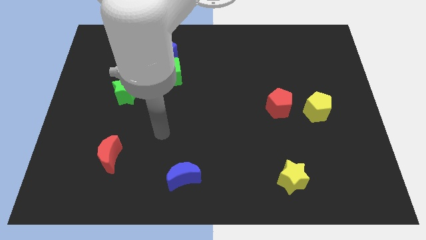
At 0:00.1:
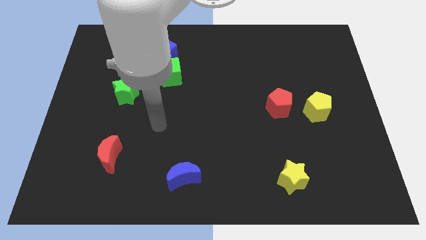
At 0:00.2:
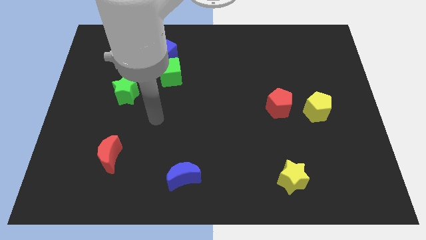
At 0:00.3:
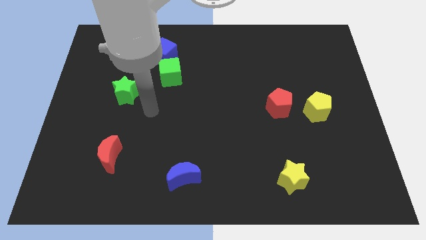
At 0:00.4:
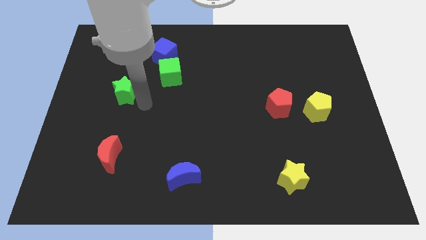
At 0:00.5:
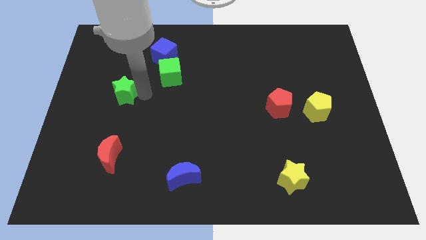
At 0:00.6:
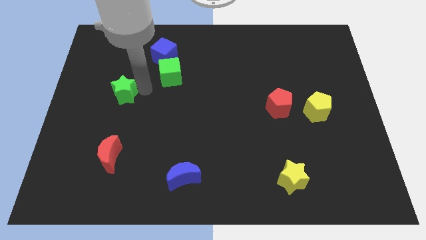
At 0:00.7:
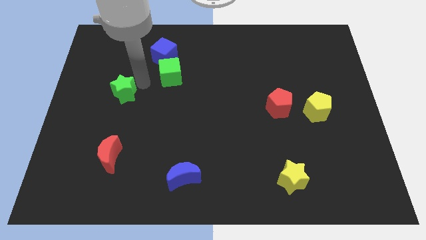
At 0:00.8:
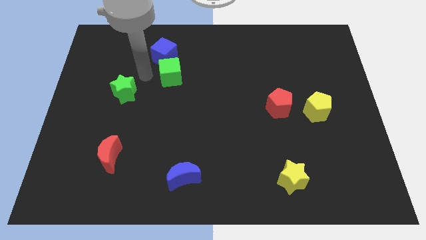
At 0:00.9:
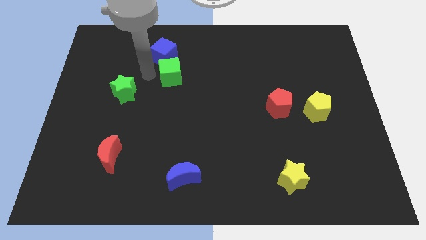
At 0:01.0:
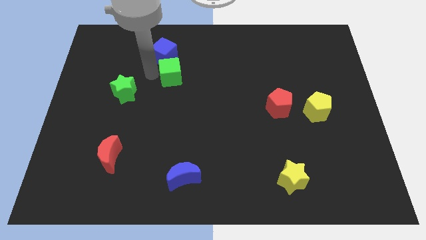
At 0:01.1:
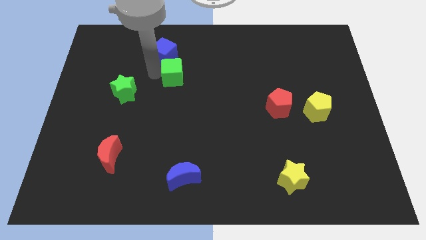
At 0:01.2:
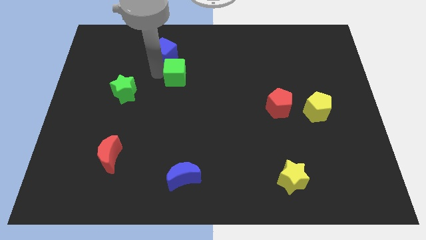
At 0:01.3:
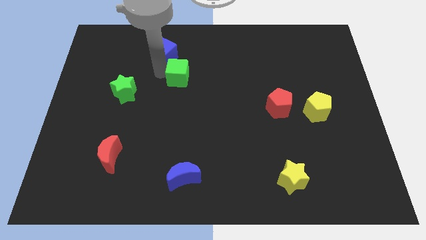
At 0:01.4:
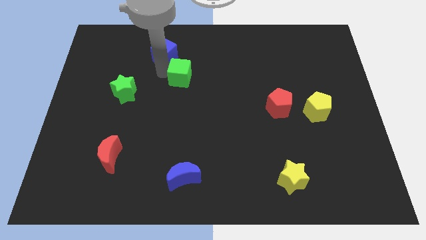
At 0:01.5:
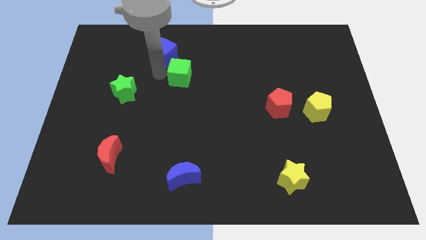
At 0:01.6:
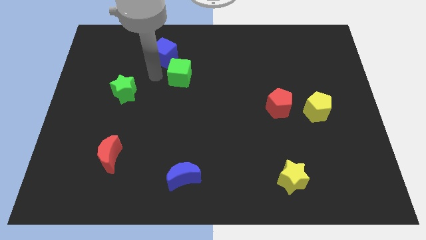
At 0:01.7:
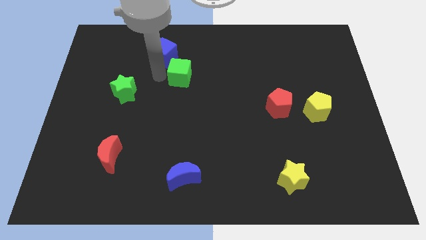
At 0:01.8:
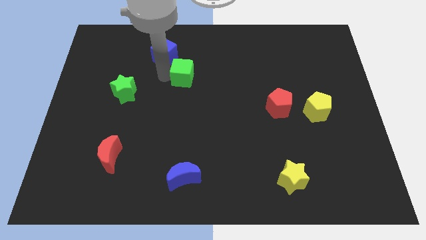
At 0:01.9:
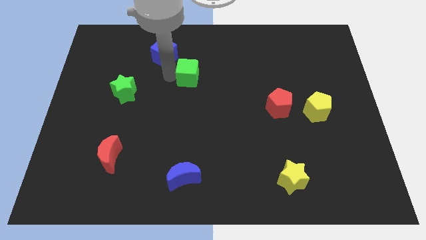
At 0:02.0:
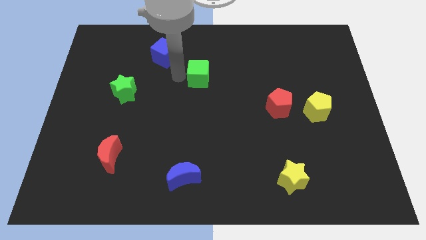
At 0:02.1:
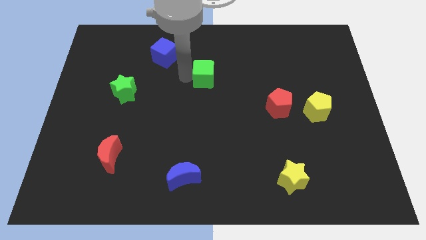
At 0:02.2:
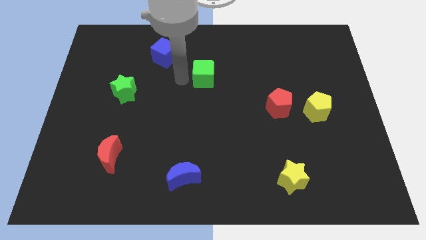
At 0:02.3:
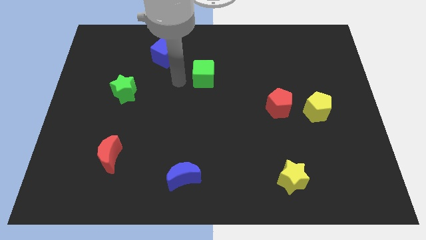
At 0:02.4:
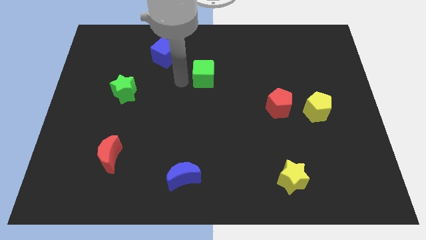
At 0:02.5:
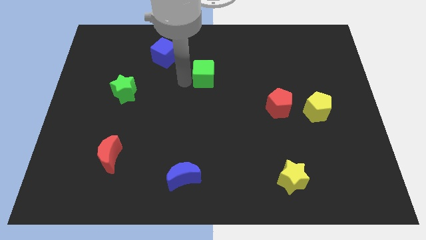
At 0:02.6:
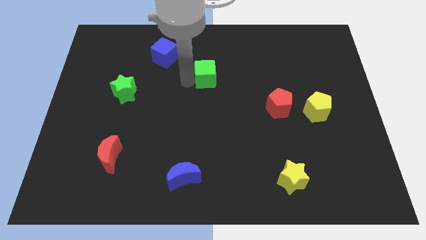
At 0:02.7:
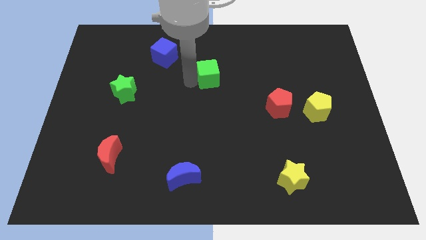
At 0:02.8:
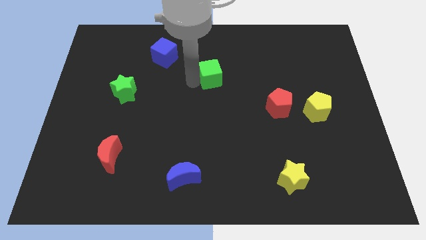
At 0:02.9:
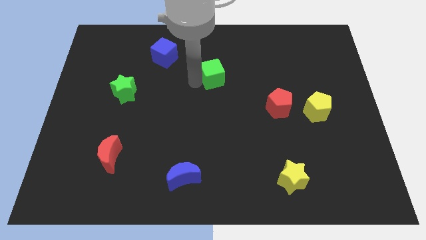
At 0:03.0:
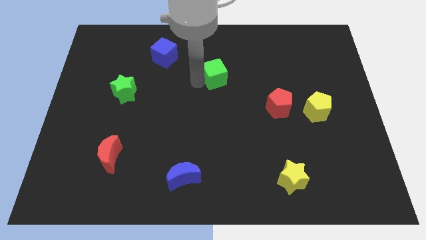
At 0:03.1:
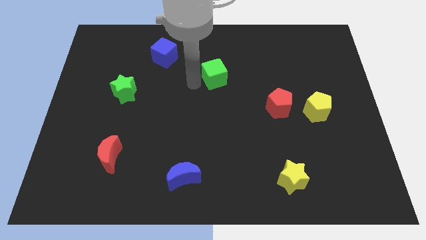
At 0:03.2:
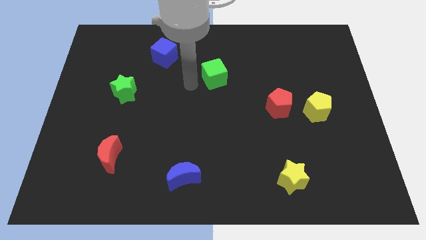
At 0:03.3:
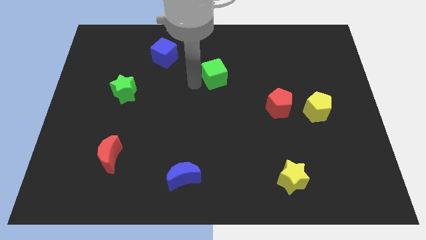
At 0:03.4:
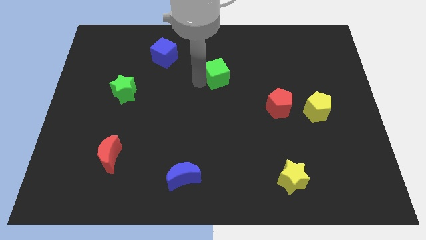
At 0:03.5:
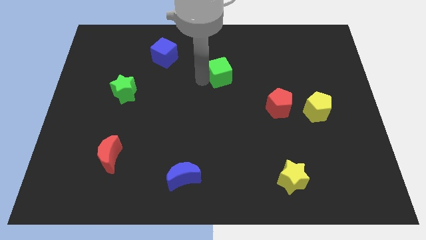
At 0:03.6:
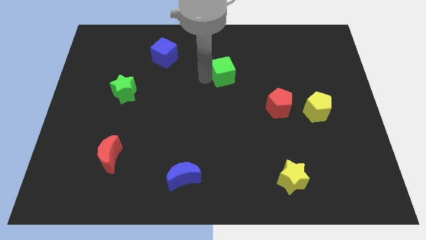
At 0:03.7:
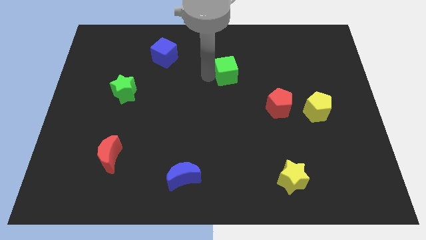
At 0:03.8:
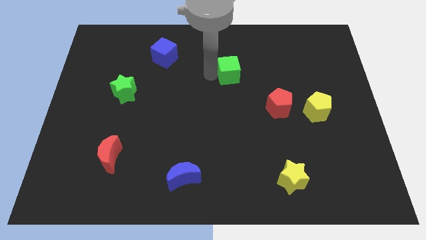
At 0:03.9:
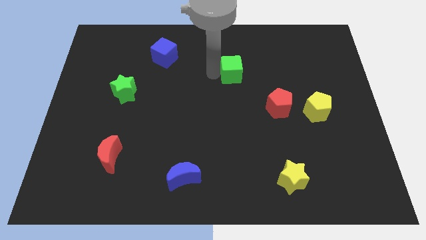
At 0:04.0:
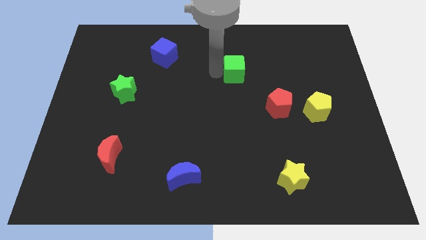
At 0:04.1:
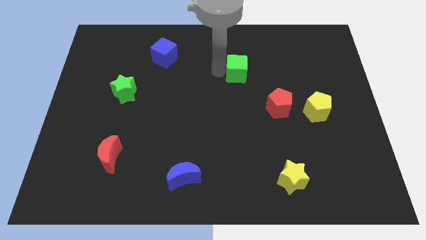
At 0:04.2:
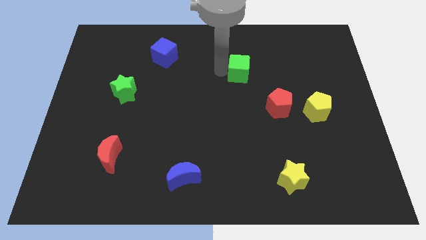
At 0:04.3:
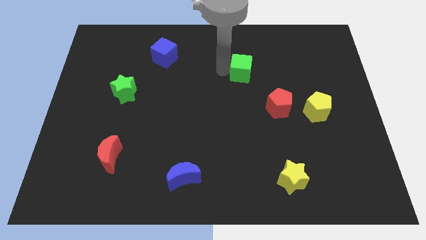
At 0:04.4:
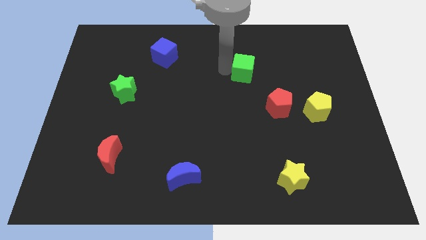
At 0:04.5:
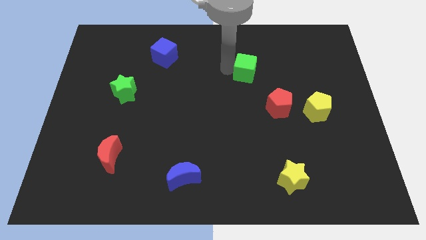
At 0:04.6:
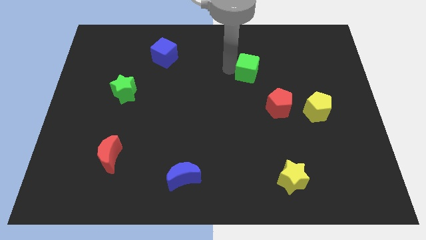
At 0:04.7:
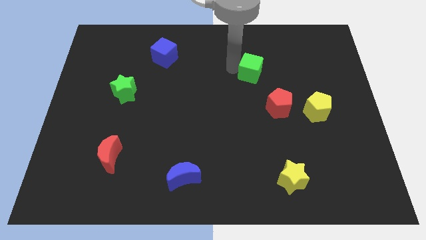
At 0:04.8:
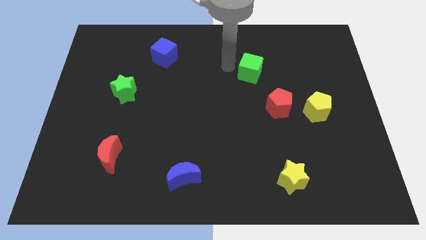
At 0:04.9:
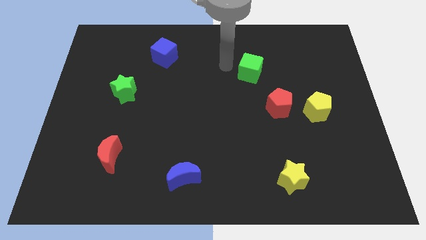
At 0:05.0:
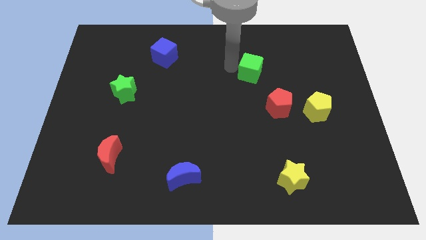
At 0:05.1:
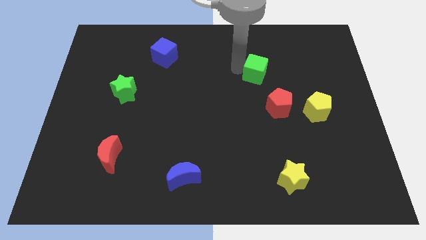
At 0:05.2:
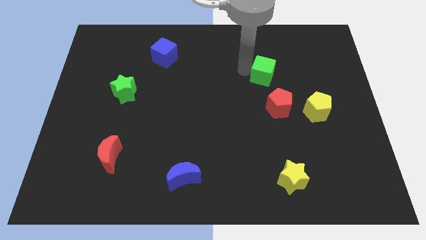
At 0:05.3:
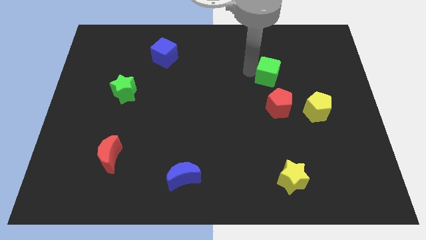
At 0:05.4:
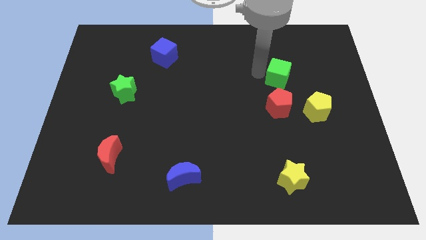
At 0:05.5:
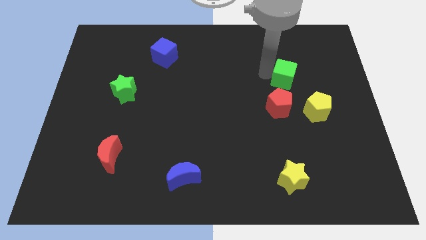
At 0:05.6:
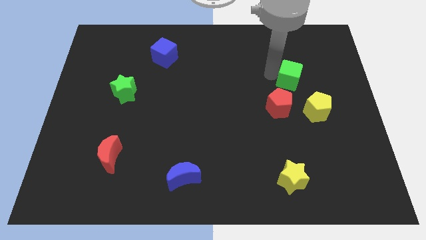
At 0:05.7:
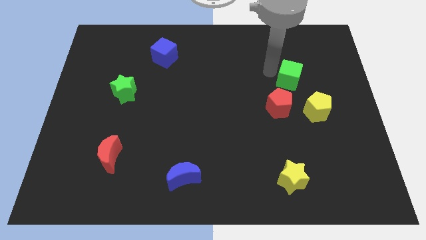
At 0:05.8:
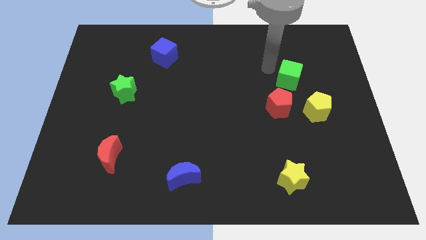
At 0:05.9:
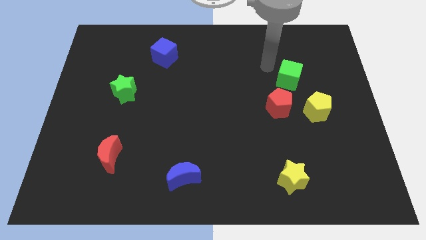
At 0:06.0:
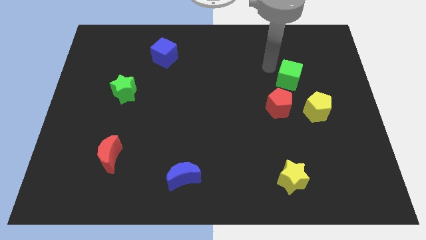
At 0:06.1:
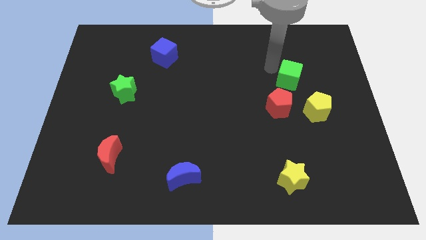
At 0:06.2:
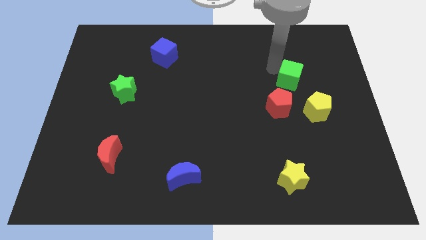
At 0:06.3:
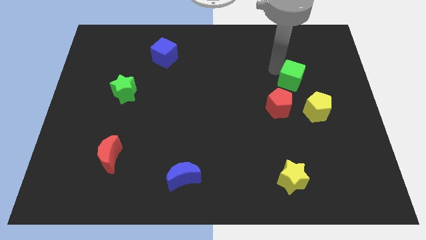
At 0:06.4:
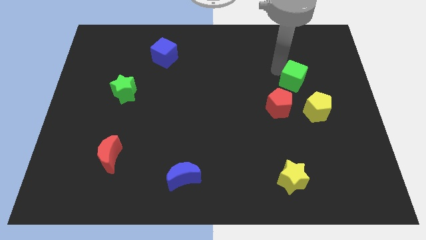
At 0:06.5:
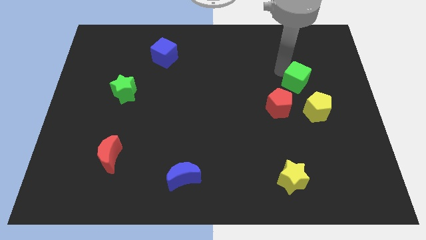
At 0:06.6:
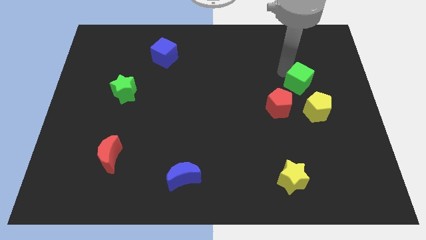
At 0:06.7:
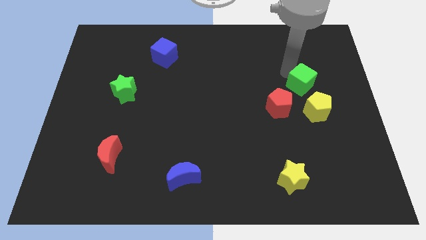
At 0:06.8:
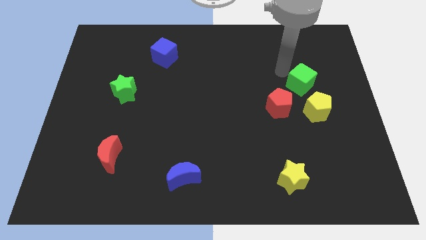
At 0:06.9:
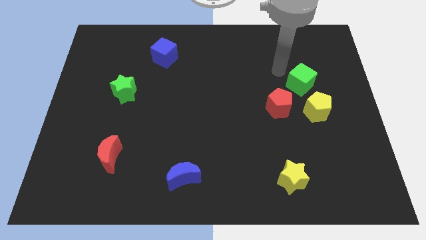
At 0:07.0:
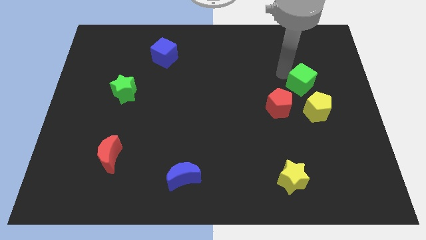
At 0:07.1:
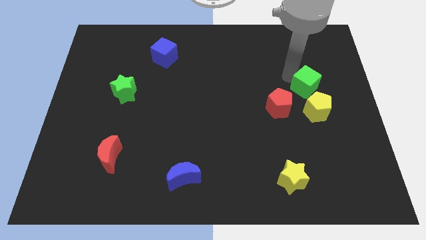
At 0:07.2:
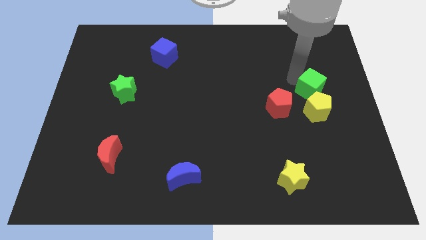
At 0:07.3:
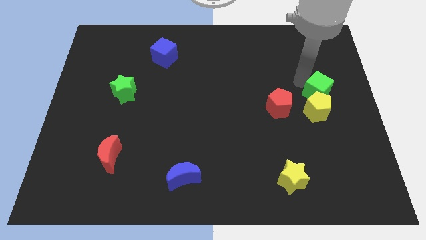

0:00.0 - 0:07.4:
push the green cube just right of the red pentagon

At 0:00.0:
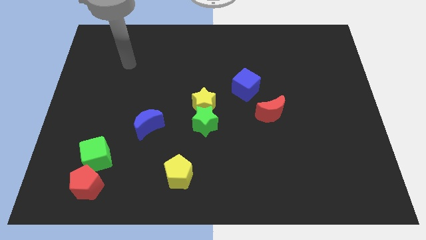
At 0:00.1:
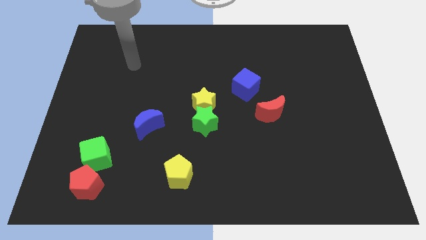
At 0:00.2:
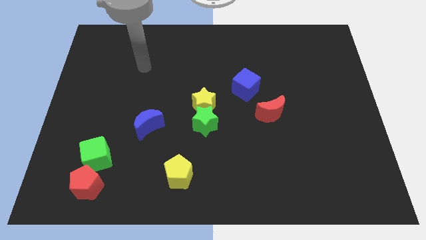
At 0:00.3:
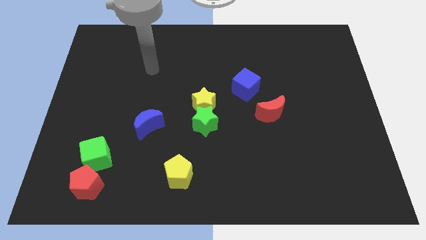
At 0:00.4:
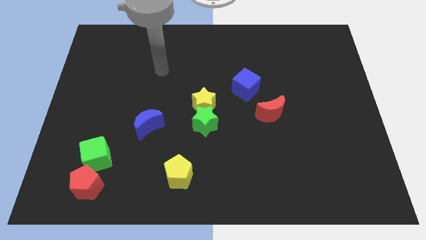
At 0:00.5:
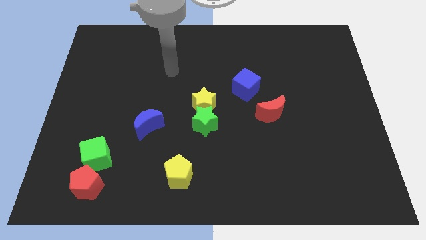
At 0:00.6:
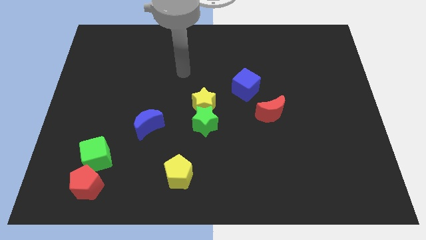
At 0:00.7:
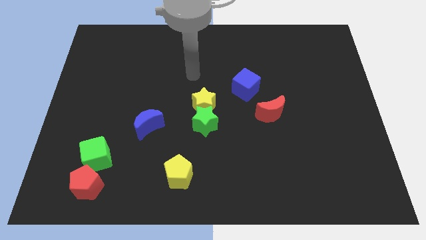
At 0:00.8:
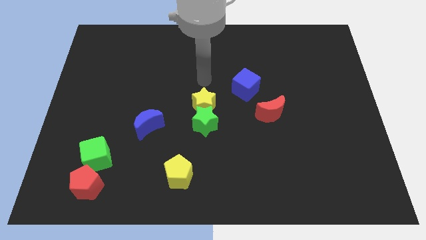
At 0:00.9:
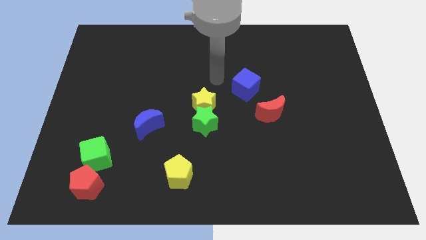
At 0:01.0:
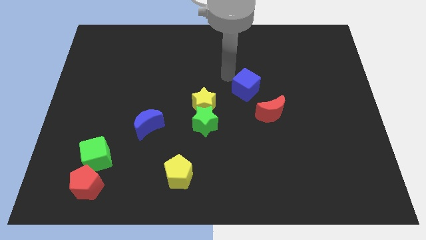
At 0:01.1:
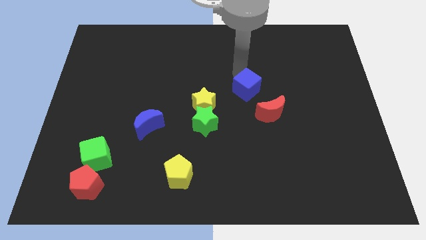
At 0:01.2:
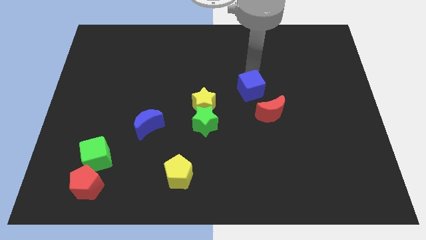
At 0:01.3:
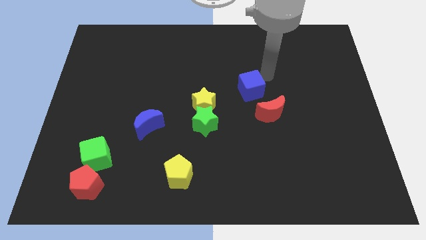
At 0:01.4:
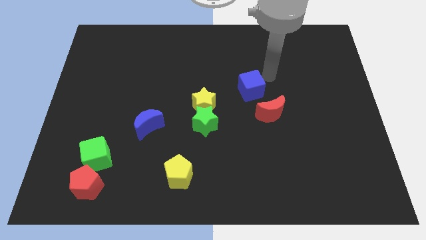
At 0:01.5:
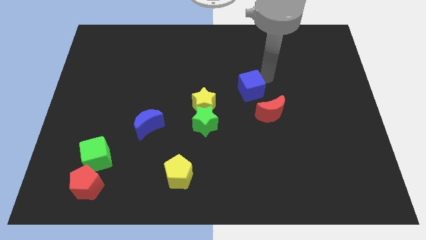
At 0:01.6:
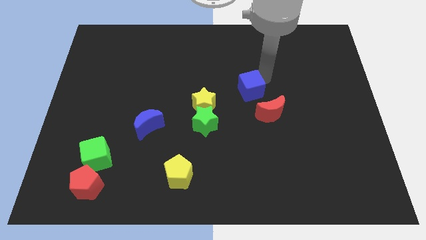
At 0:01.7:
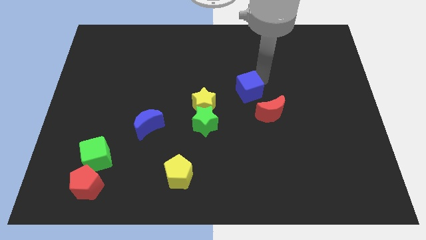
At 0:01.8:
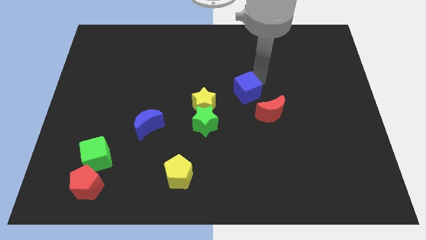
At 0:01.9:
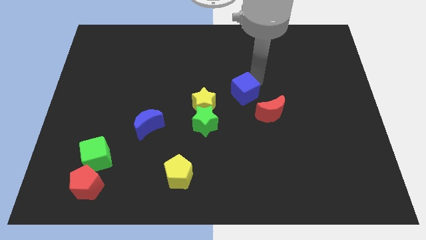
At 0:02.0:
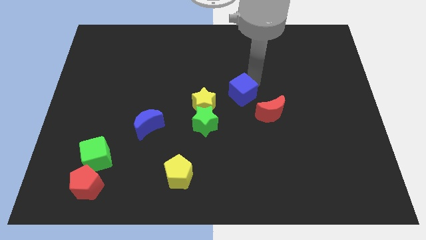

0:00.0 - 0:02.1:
put the blue cube to the top right of the green star
